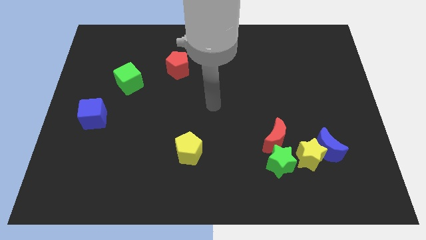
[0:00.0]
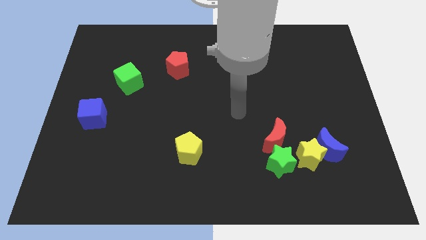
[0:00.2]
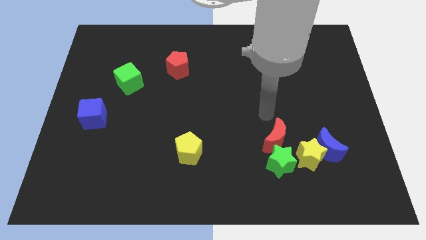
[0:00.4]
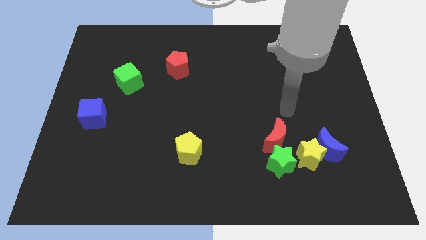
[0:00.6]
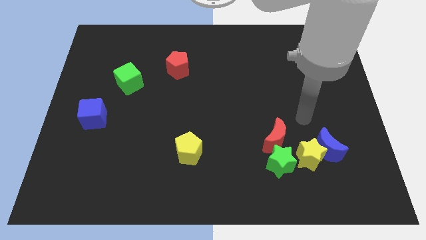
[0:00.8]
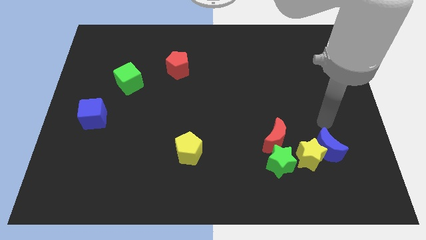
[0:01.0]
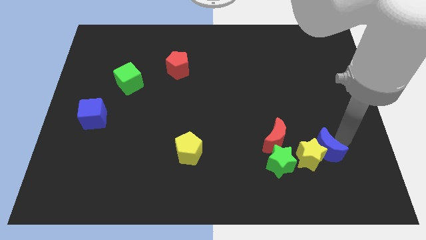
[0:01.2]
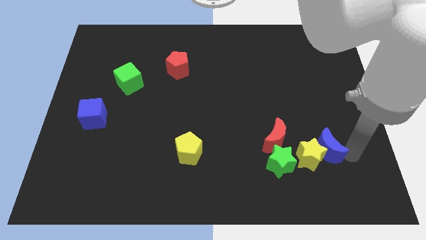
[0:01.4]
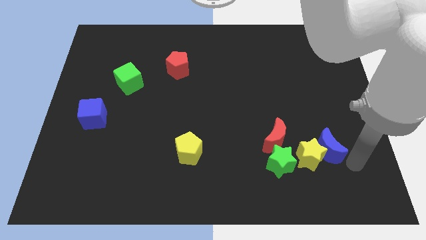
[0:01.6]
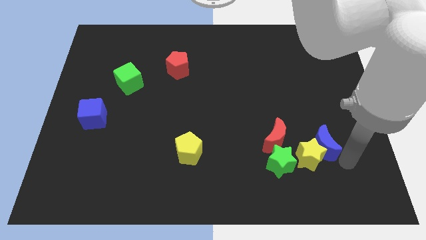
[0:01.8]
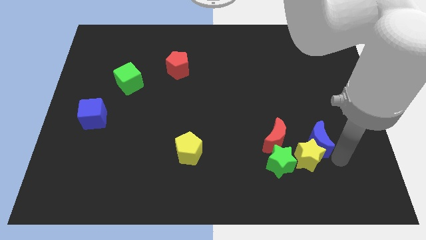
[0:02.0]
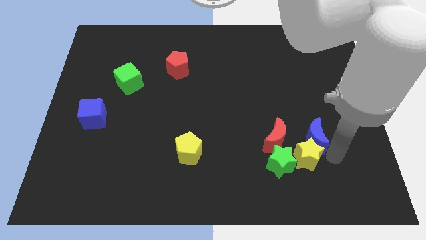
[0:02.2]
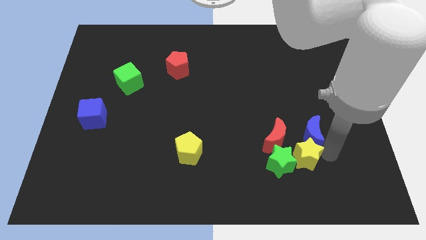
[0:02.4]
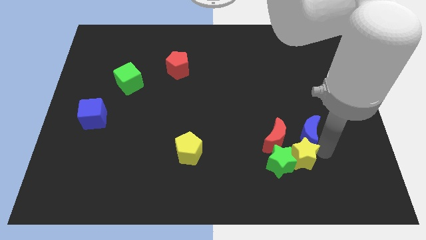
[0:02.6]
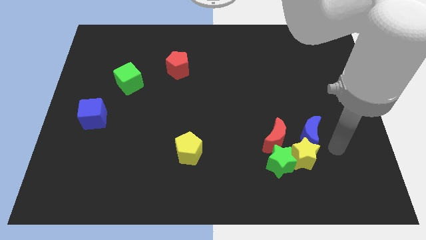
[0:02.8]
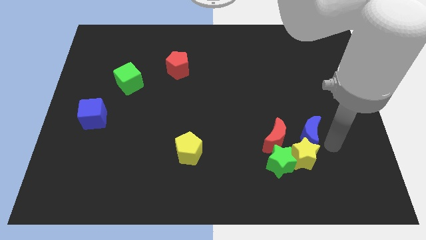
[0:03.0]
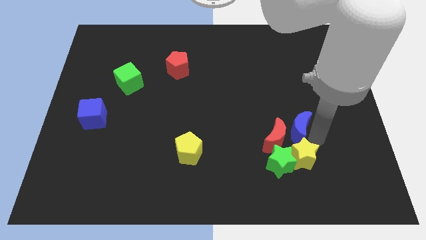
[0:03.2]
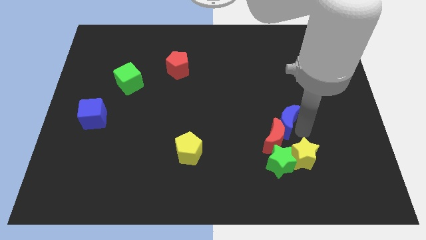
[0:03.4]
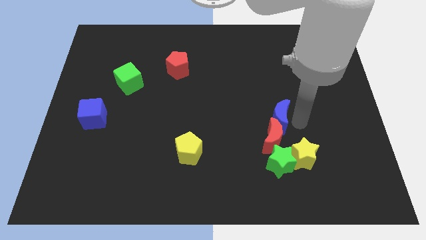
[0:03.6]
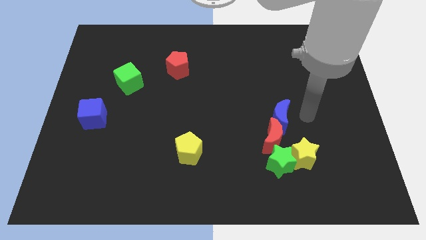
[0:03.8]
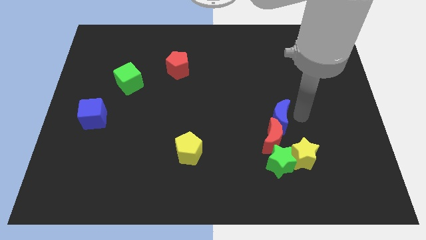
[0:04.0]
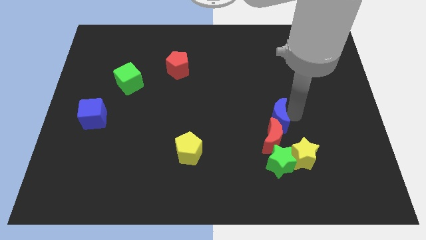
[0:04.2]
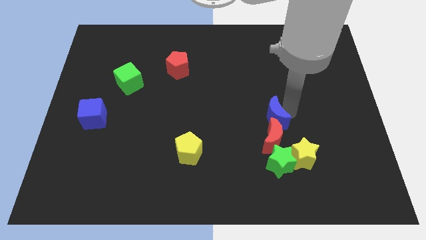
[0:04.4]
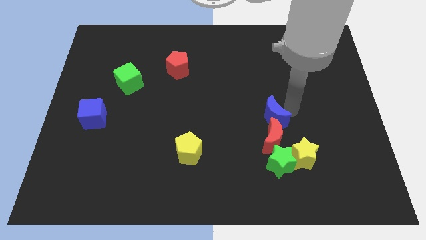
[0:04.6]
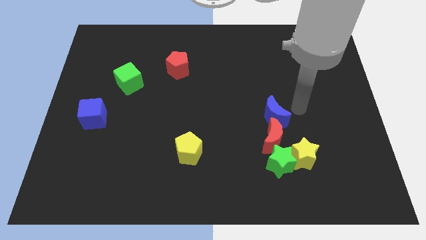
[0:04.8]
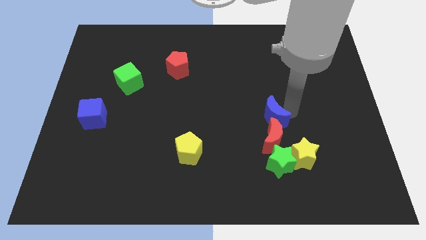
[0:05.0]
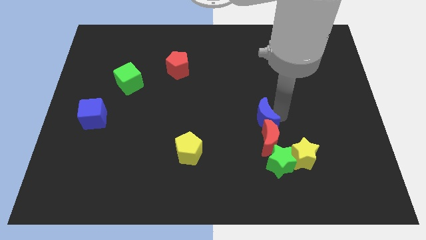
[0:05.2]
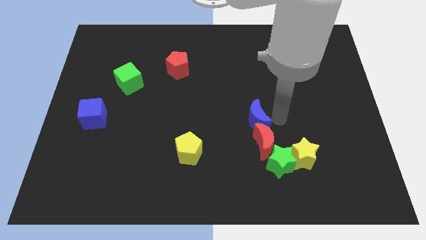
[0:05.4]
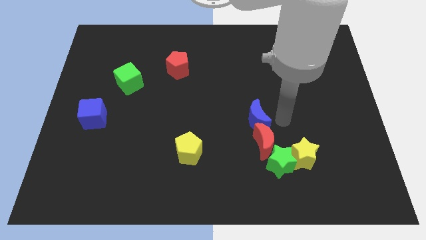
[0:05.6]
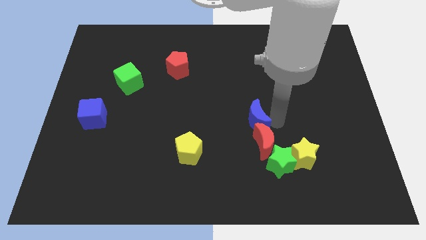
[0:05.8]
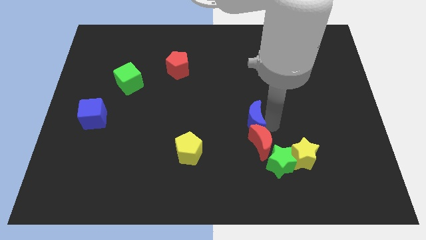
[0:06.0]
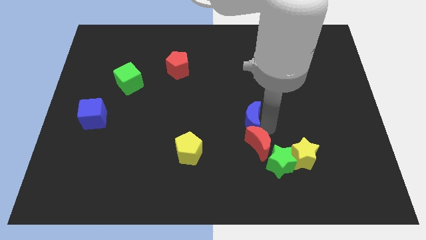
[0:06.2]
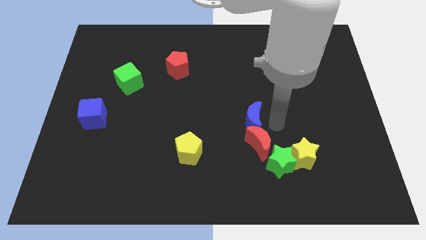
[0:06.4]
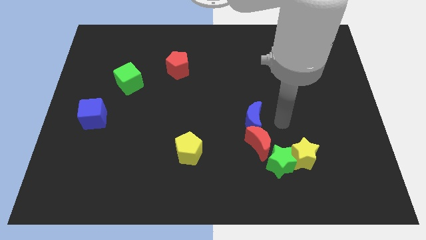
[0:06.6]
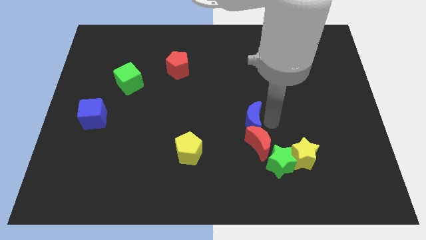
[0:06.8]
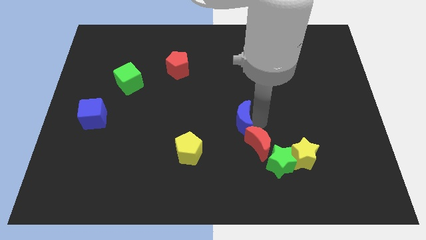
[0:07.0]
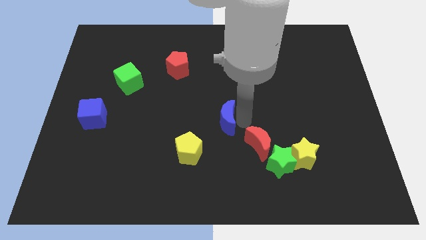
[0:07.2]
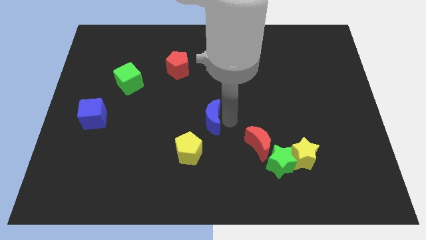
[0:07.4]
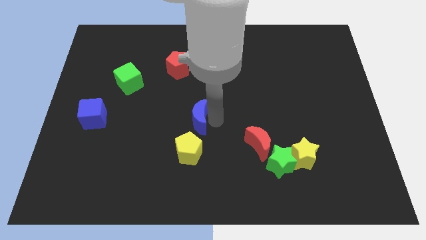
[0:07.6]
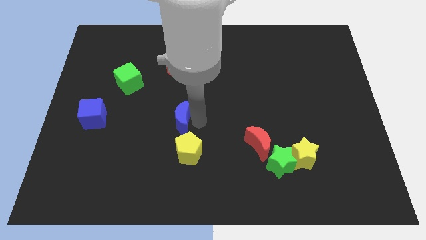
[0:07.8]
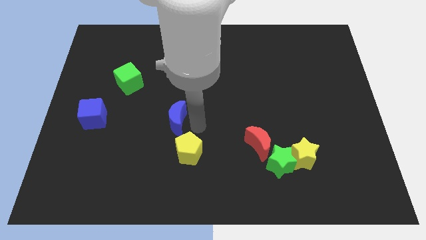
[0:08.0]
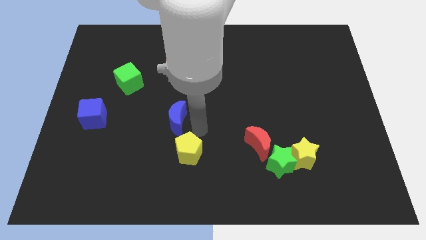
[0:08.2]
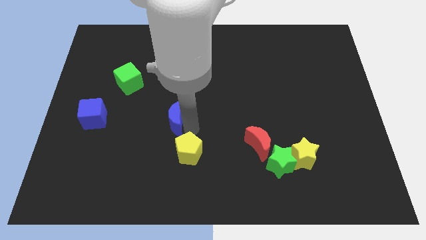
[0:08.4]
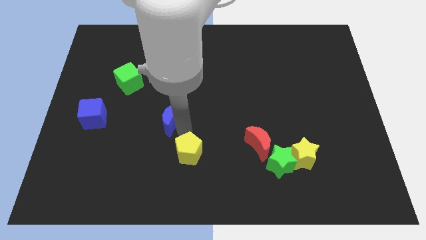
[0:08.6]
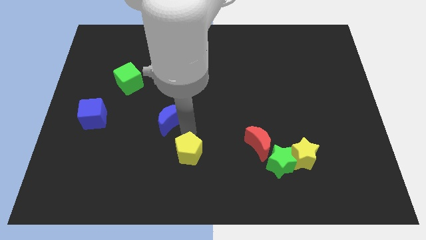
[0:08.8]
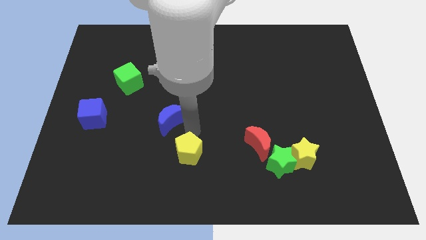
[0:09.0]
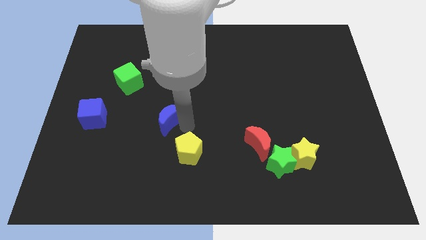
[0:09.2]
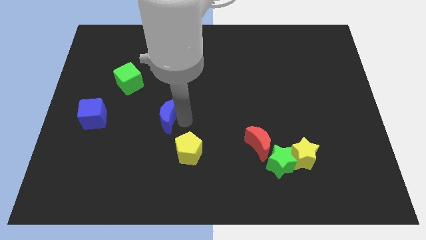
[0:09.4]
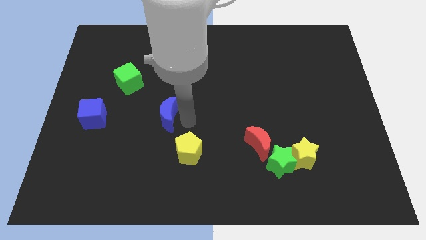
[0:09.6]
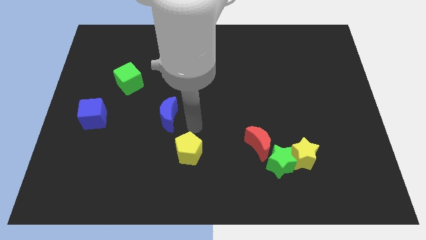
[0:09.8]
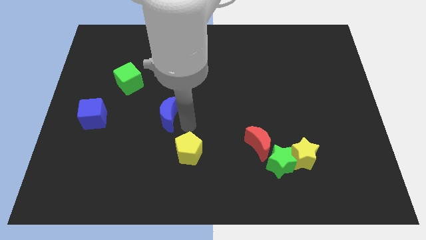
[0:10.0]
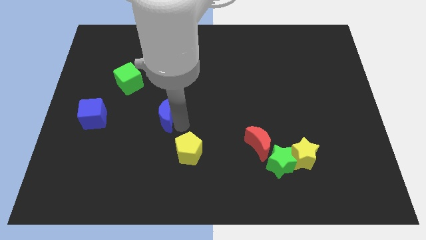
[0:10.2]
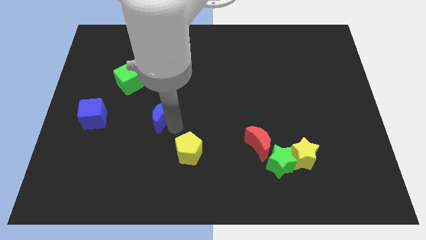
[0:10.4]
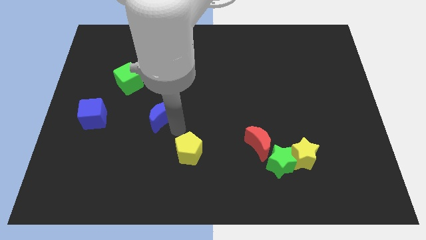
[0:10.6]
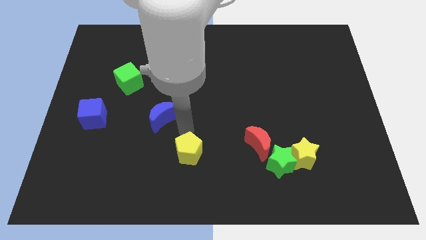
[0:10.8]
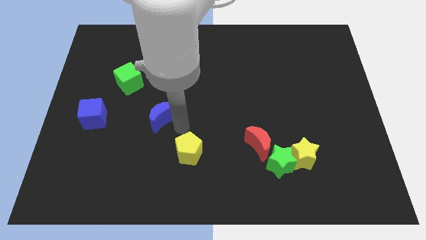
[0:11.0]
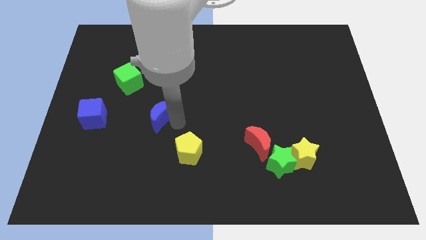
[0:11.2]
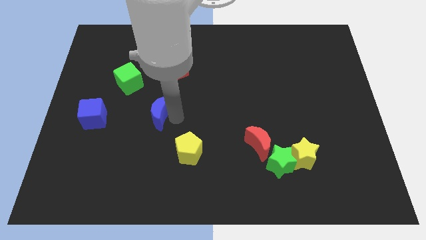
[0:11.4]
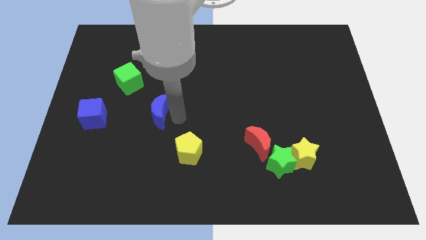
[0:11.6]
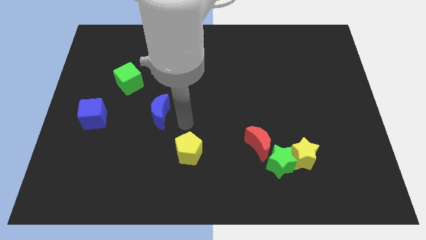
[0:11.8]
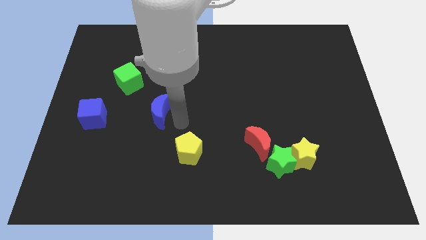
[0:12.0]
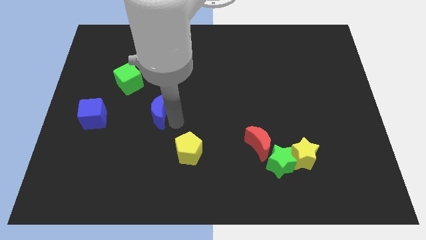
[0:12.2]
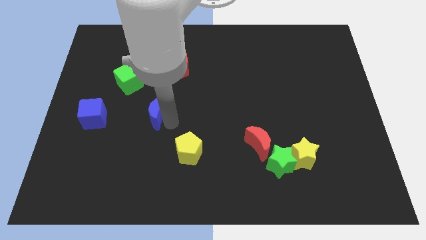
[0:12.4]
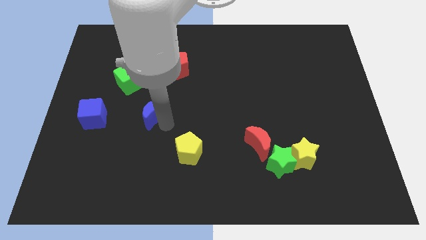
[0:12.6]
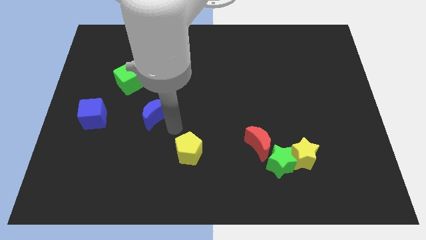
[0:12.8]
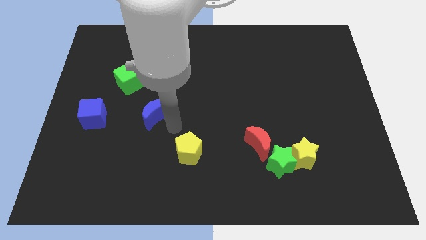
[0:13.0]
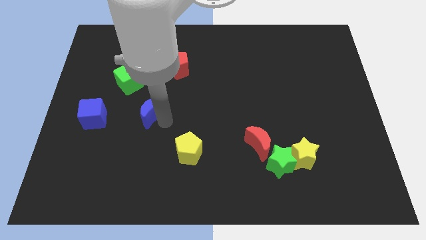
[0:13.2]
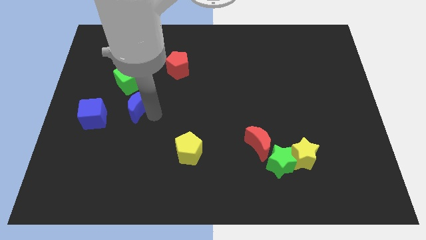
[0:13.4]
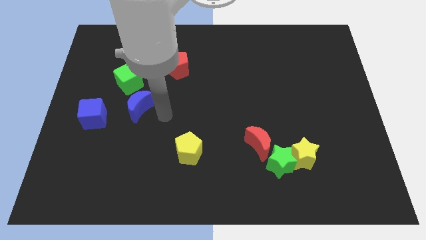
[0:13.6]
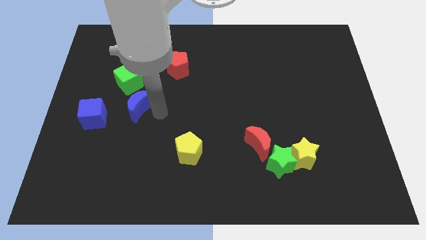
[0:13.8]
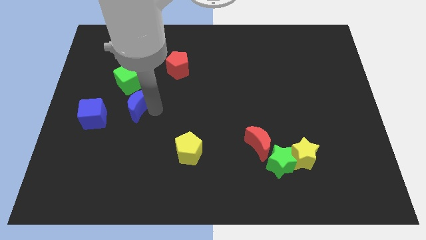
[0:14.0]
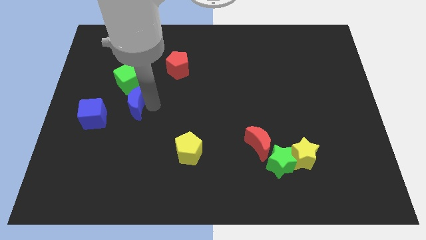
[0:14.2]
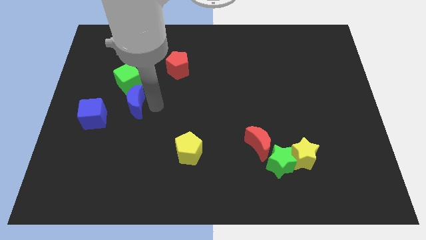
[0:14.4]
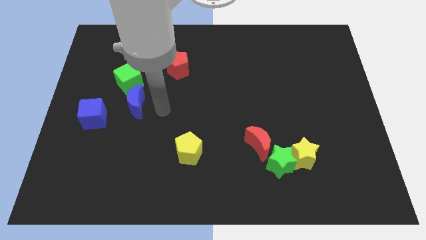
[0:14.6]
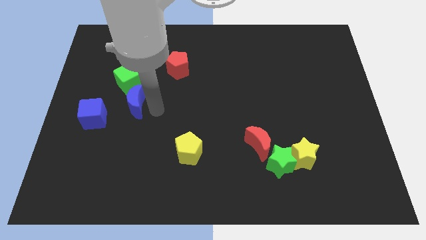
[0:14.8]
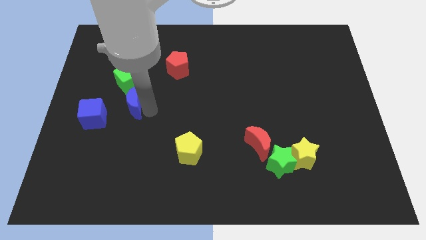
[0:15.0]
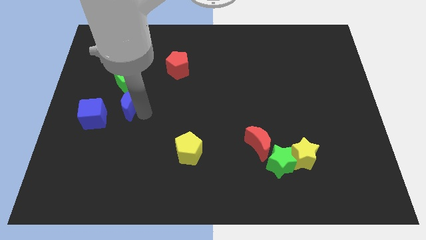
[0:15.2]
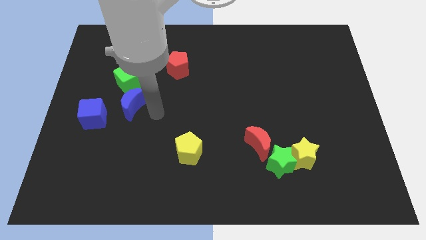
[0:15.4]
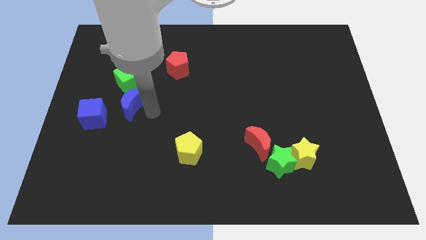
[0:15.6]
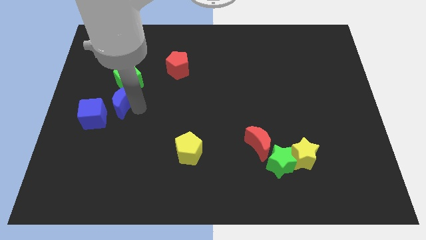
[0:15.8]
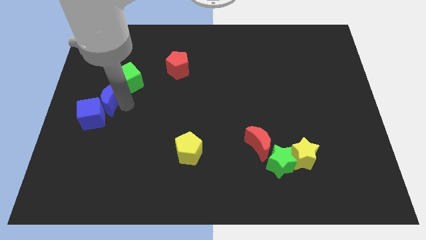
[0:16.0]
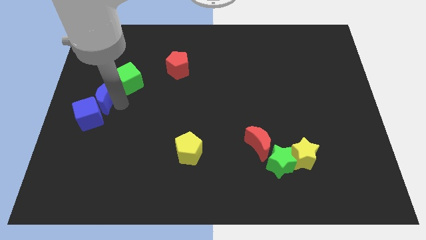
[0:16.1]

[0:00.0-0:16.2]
move the blue moon to the left side
